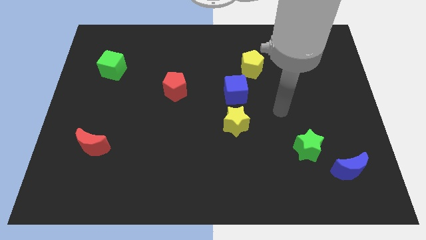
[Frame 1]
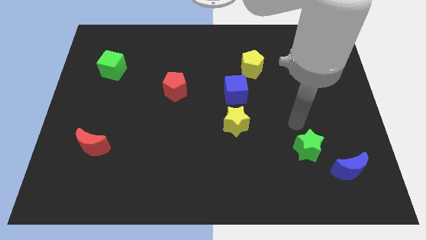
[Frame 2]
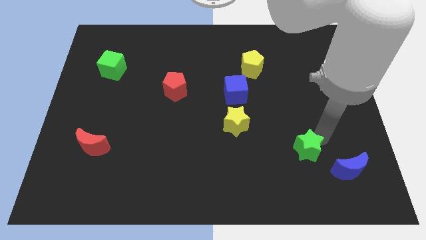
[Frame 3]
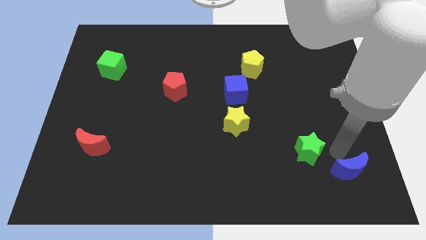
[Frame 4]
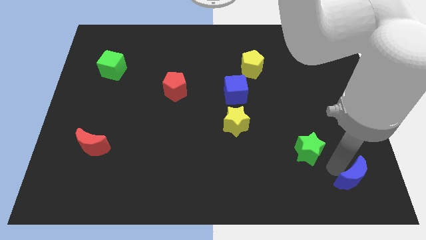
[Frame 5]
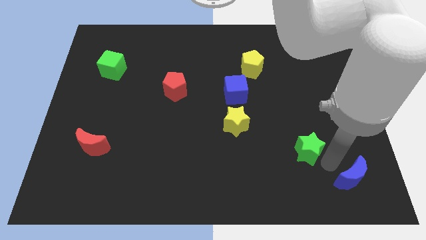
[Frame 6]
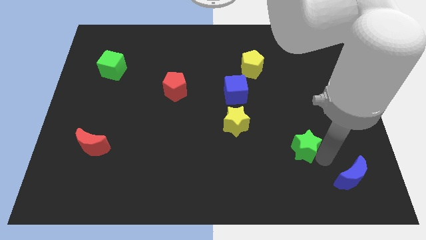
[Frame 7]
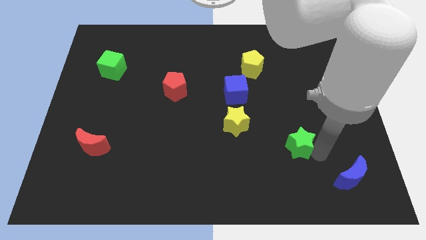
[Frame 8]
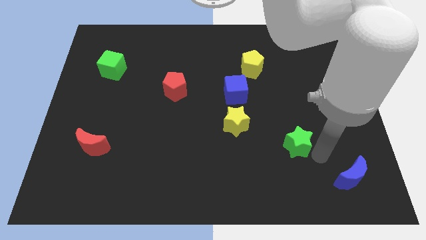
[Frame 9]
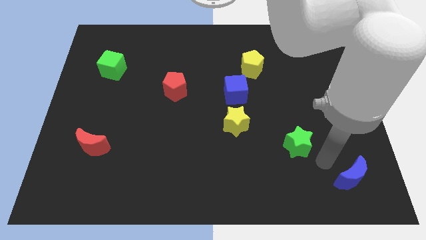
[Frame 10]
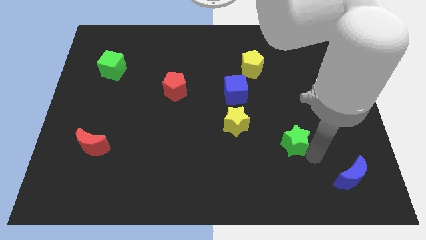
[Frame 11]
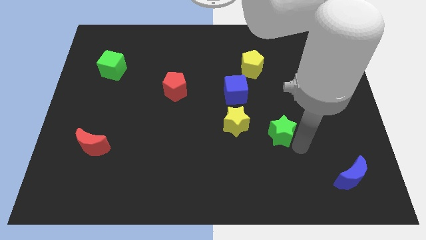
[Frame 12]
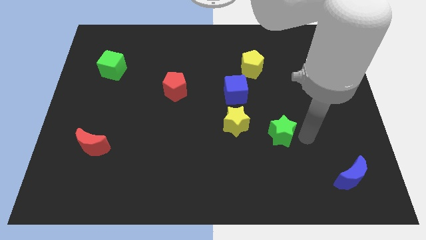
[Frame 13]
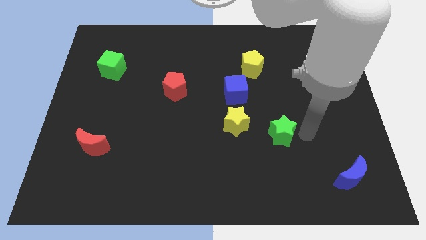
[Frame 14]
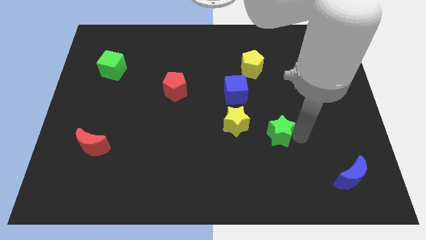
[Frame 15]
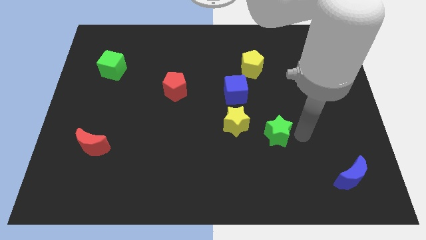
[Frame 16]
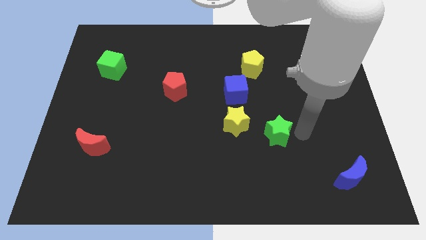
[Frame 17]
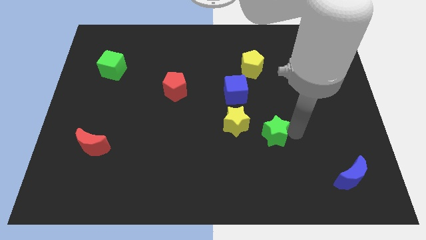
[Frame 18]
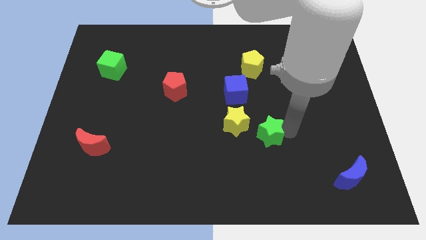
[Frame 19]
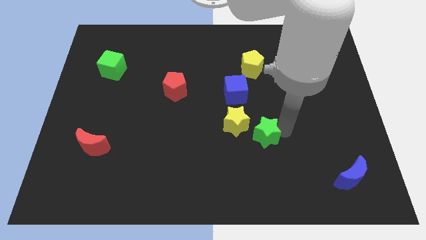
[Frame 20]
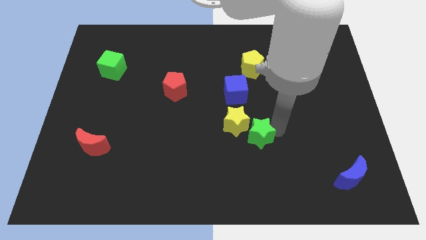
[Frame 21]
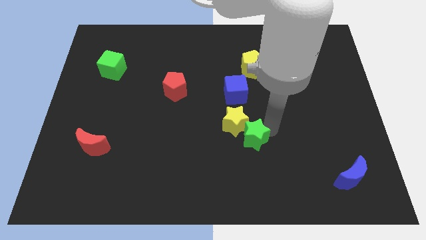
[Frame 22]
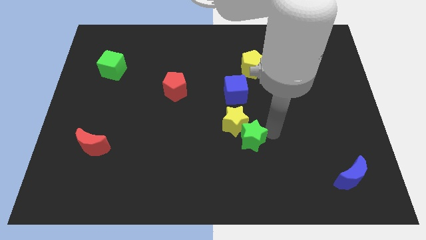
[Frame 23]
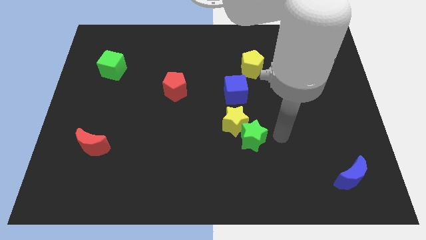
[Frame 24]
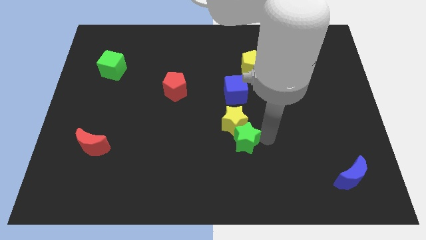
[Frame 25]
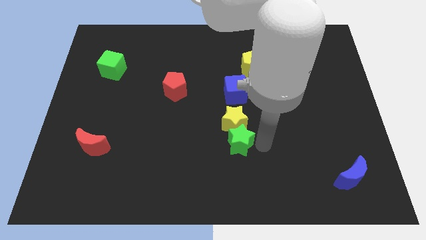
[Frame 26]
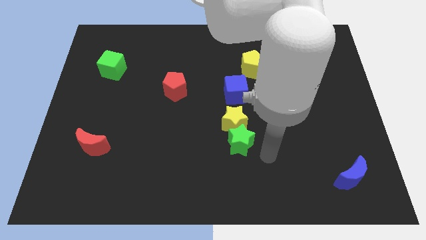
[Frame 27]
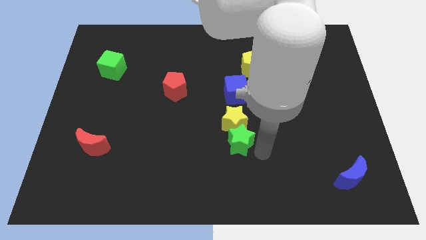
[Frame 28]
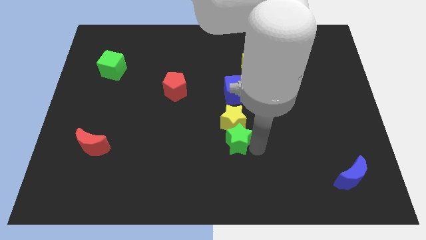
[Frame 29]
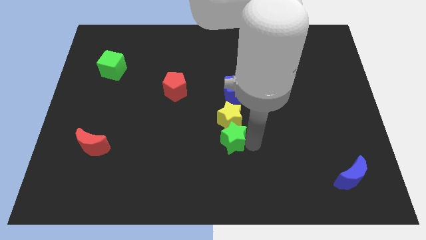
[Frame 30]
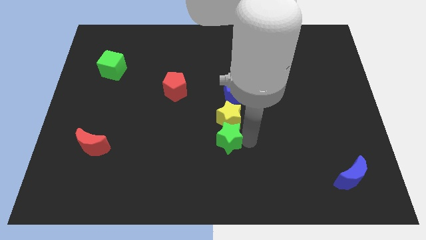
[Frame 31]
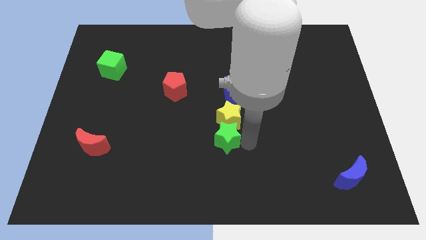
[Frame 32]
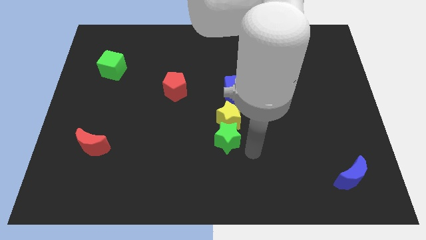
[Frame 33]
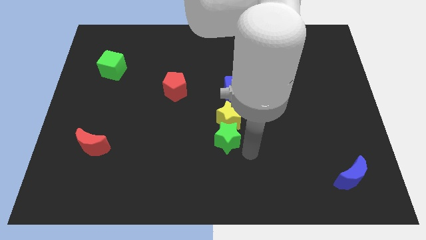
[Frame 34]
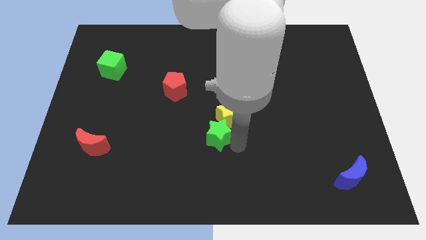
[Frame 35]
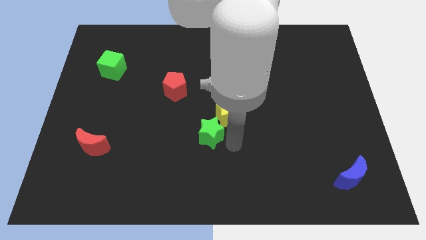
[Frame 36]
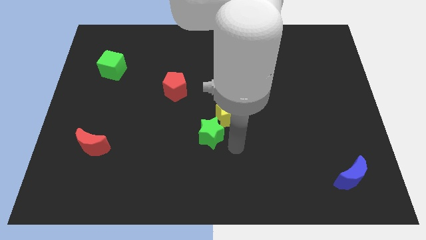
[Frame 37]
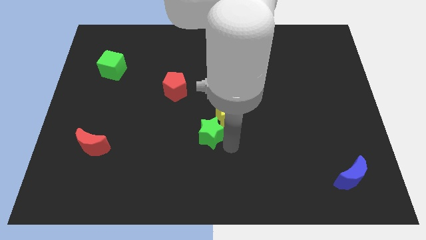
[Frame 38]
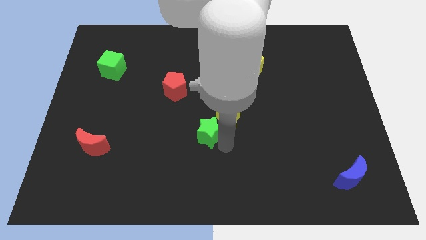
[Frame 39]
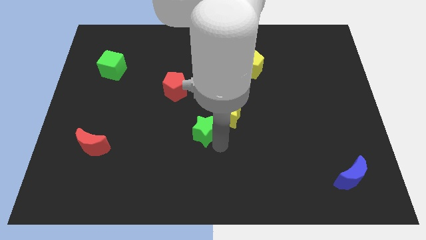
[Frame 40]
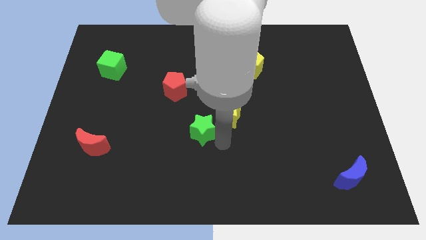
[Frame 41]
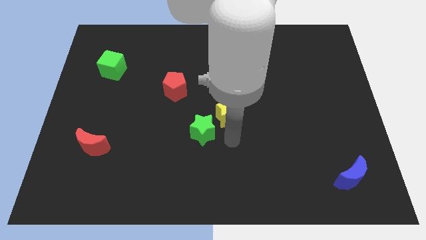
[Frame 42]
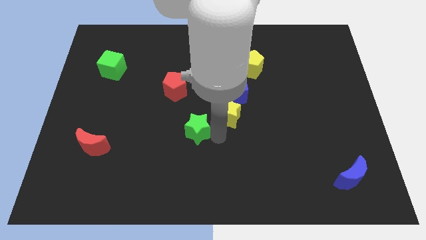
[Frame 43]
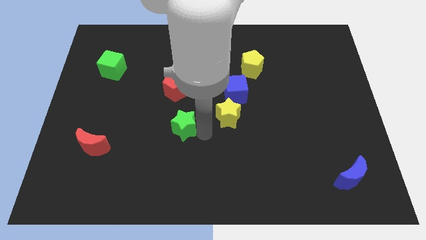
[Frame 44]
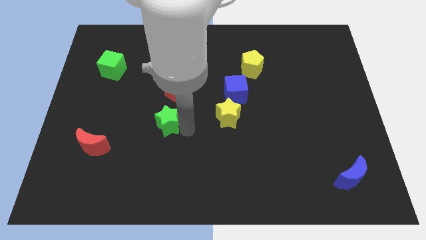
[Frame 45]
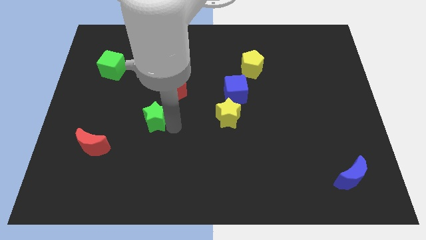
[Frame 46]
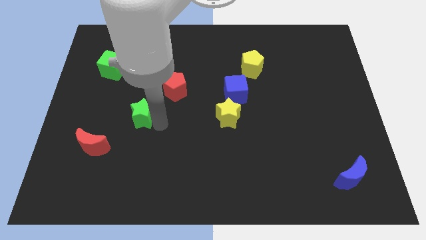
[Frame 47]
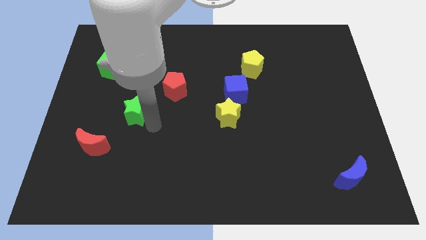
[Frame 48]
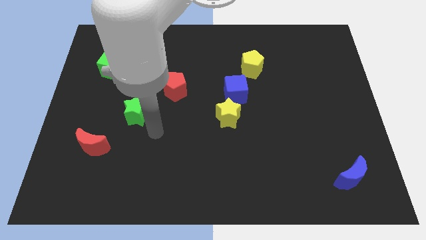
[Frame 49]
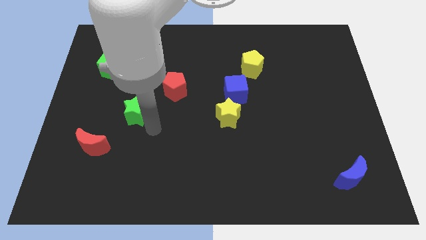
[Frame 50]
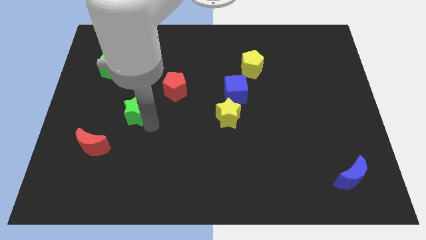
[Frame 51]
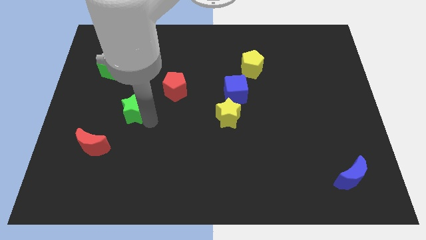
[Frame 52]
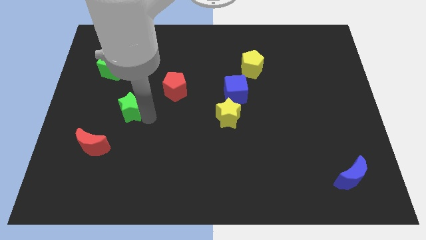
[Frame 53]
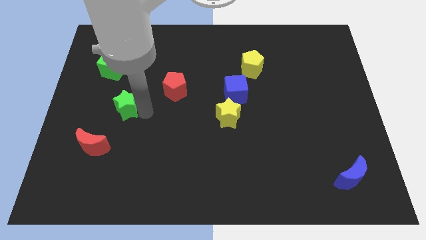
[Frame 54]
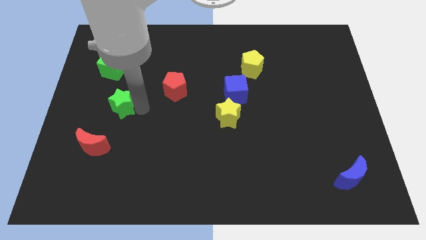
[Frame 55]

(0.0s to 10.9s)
put the green star to the bottom of the green cube

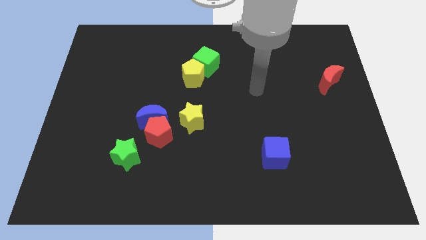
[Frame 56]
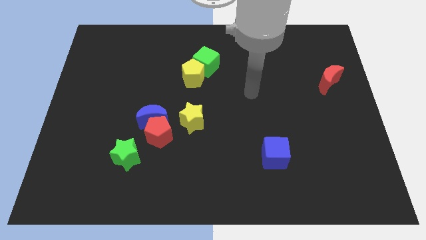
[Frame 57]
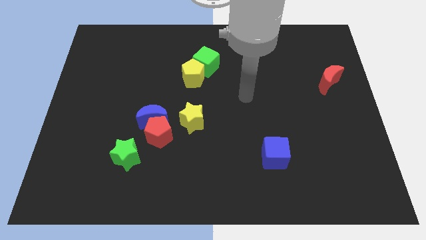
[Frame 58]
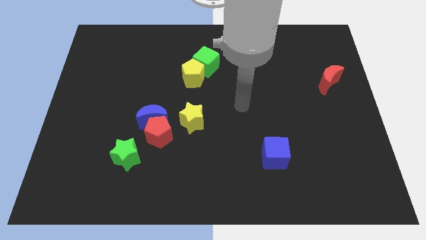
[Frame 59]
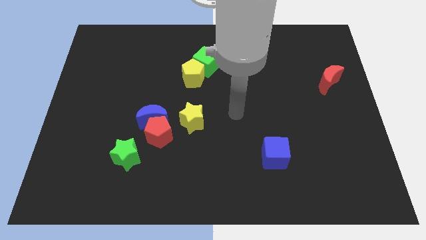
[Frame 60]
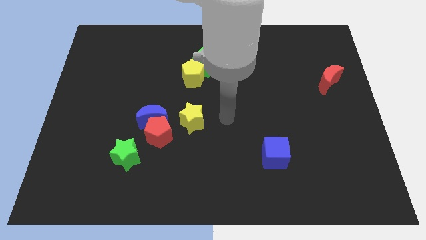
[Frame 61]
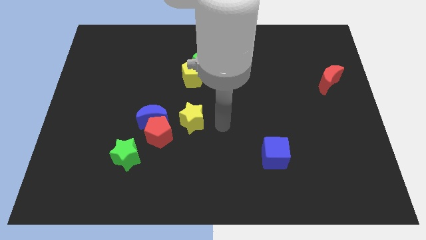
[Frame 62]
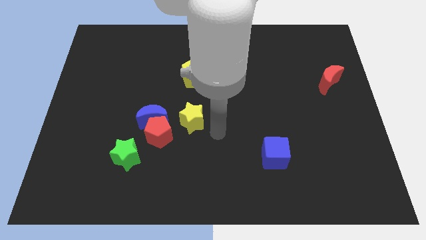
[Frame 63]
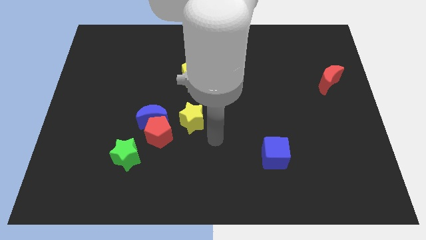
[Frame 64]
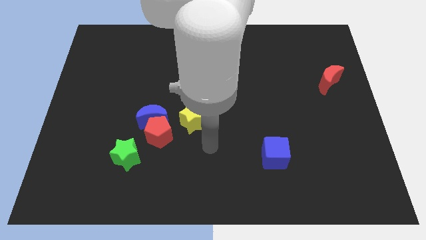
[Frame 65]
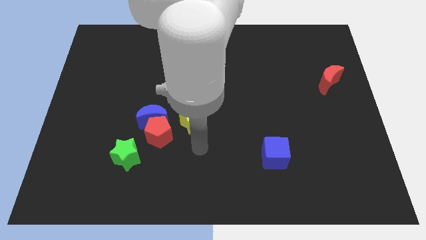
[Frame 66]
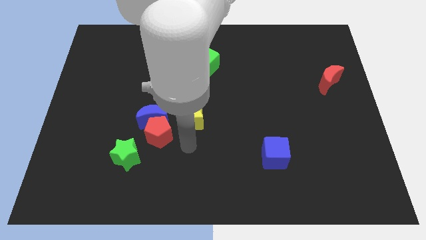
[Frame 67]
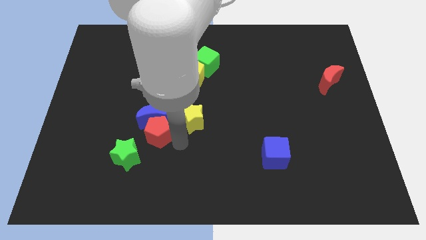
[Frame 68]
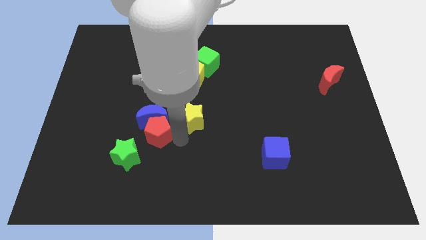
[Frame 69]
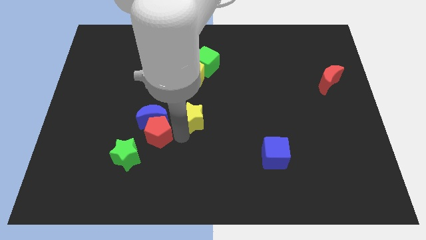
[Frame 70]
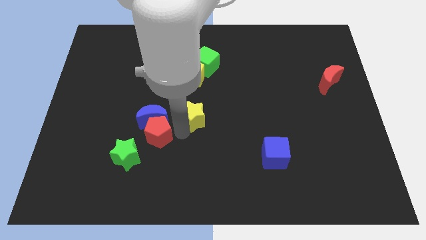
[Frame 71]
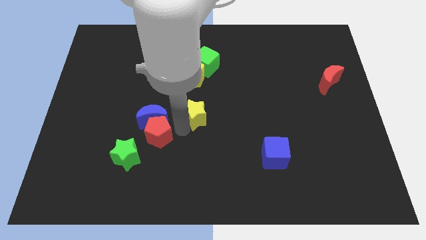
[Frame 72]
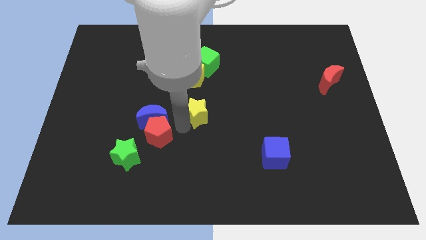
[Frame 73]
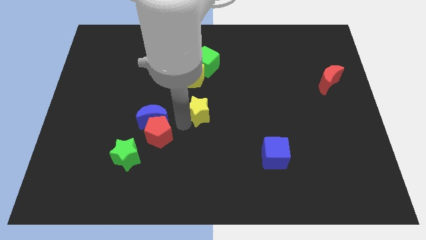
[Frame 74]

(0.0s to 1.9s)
move the yellow star below the green cube

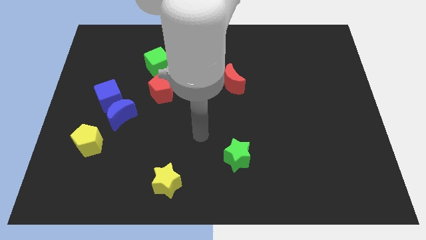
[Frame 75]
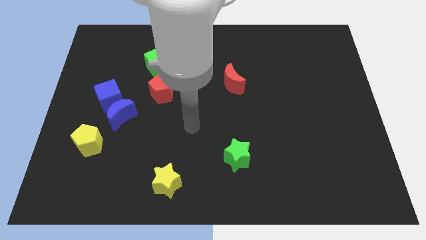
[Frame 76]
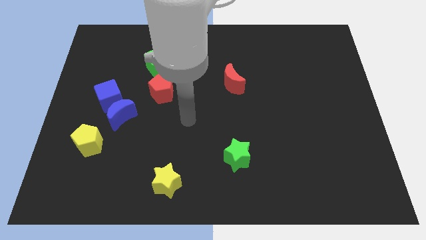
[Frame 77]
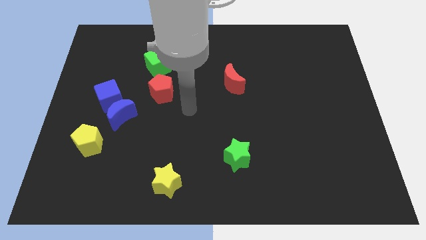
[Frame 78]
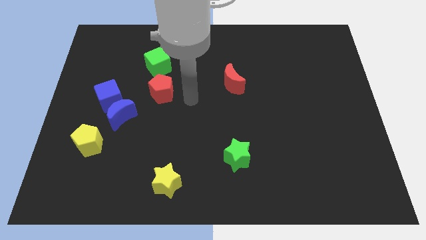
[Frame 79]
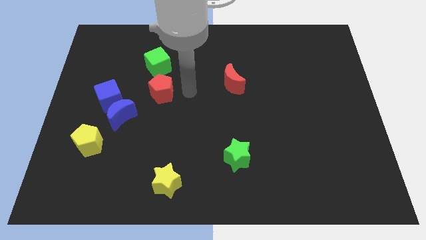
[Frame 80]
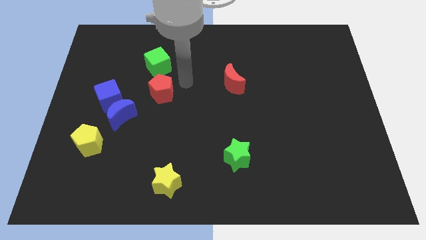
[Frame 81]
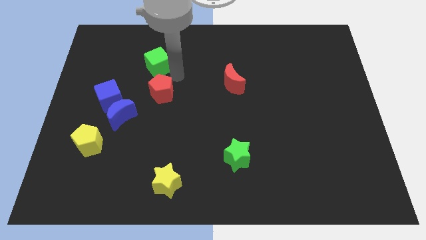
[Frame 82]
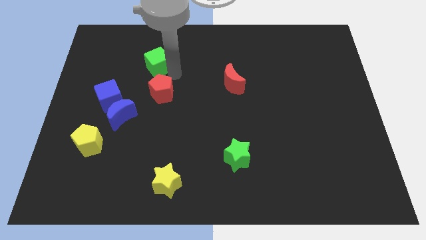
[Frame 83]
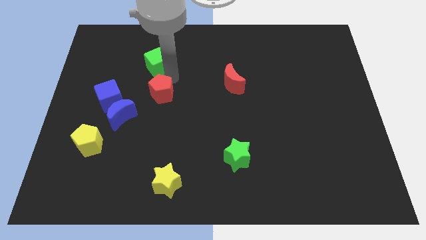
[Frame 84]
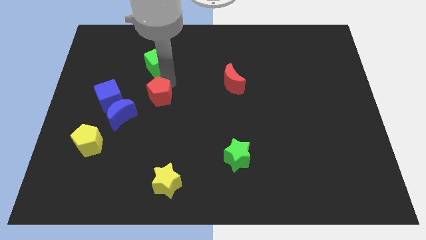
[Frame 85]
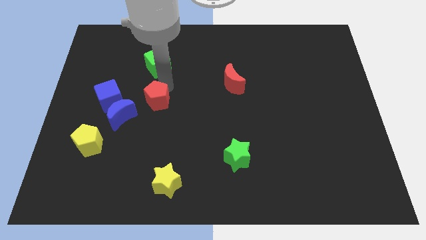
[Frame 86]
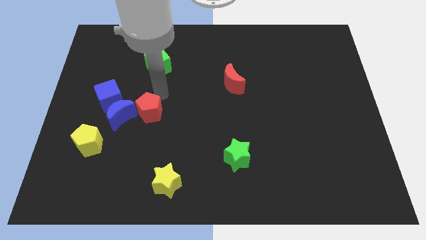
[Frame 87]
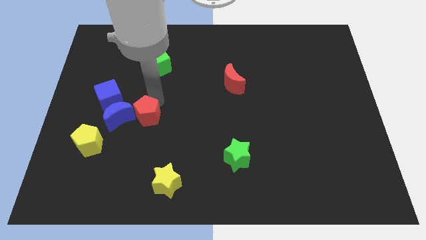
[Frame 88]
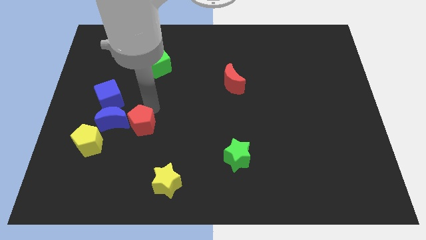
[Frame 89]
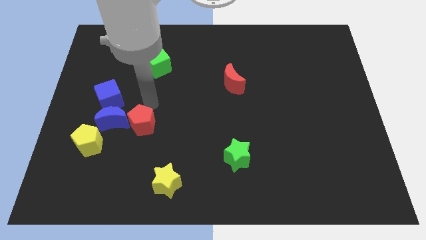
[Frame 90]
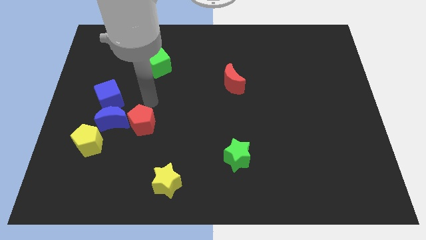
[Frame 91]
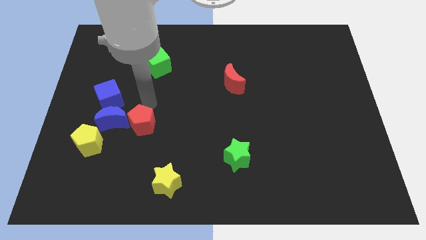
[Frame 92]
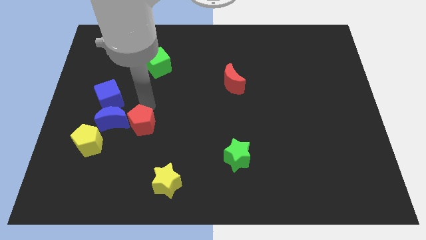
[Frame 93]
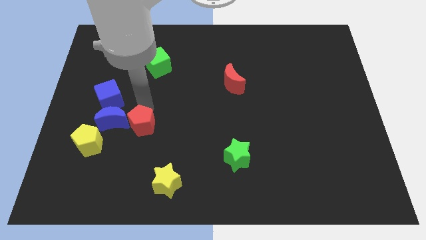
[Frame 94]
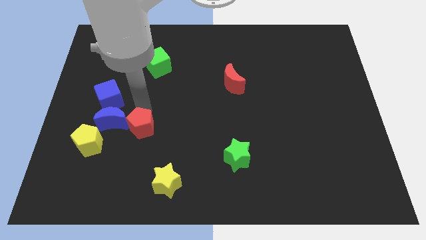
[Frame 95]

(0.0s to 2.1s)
move the red pentagon just right of the yellow pentagon
